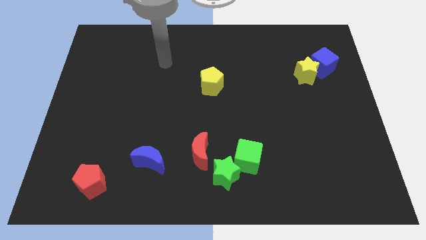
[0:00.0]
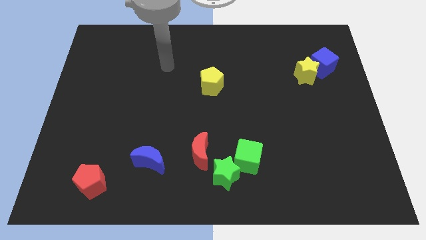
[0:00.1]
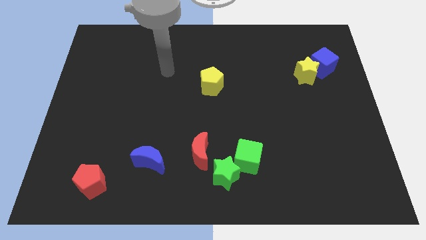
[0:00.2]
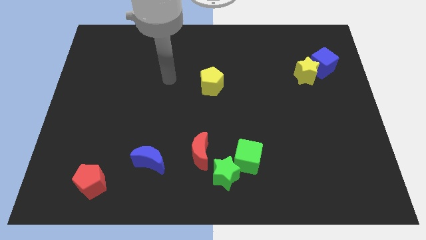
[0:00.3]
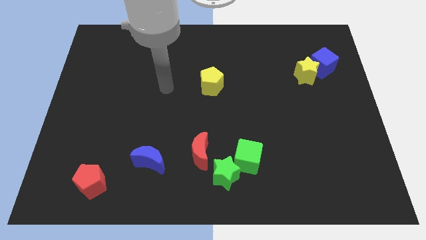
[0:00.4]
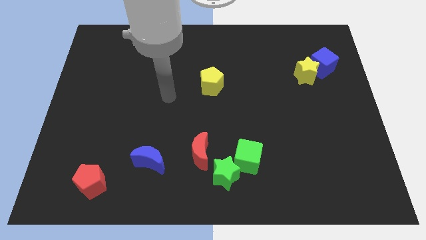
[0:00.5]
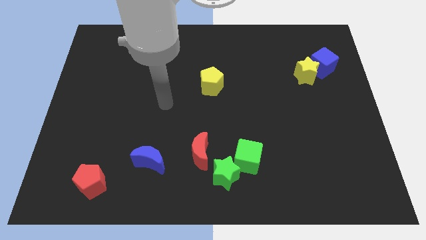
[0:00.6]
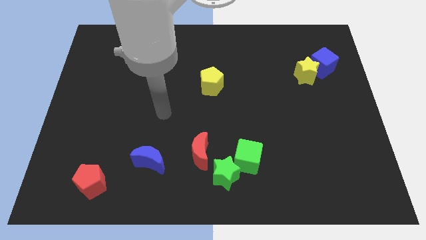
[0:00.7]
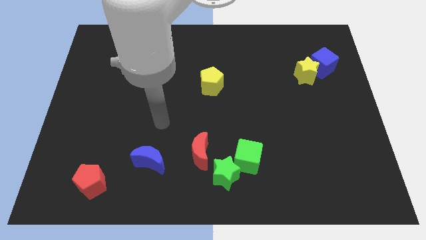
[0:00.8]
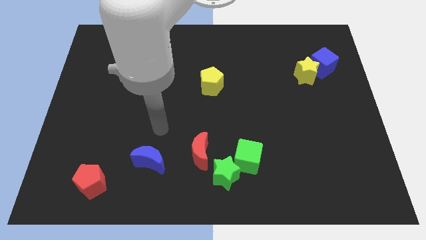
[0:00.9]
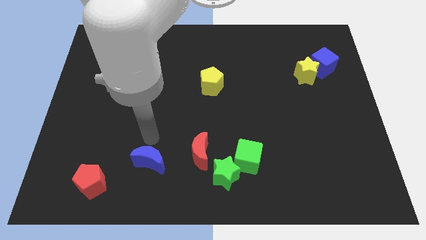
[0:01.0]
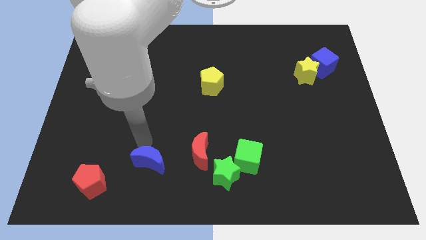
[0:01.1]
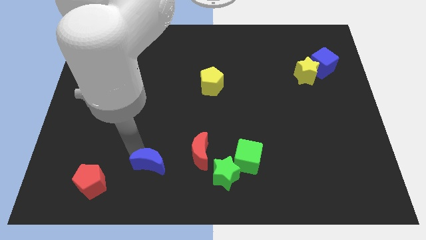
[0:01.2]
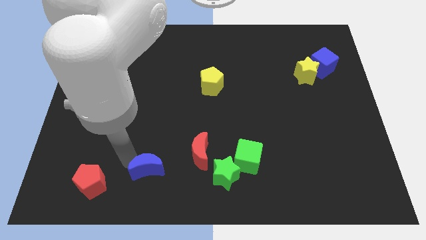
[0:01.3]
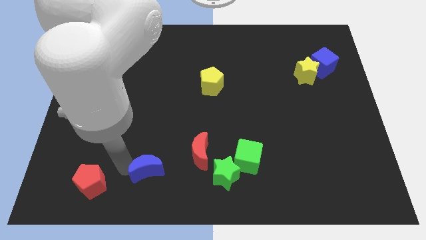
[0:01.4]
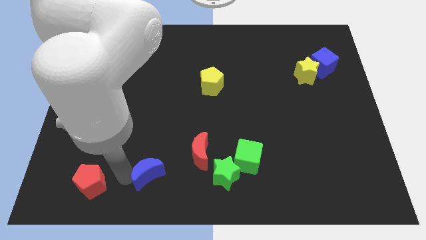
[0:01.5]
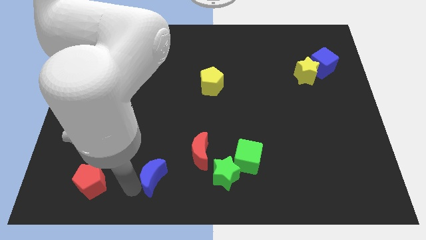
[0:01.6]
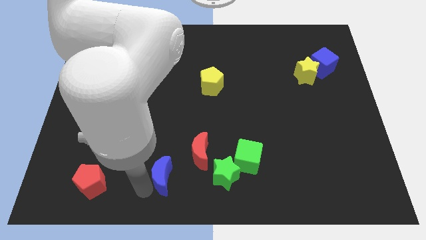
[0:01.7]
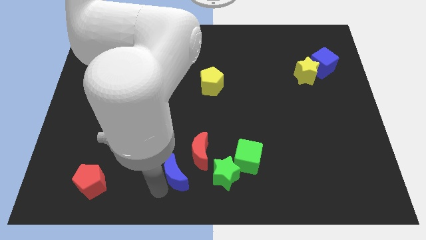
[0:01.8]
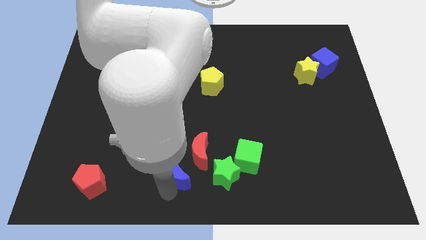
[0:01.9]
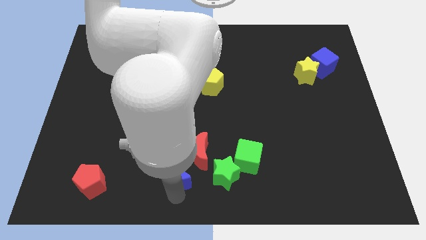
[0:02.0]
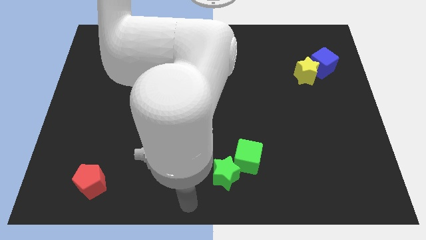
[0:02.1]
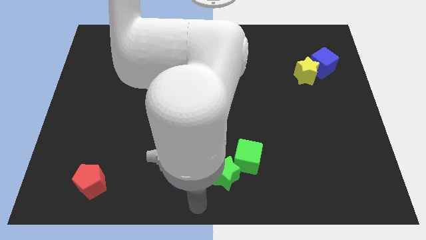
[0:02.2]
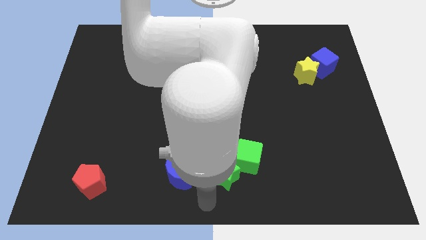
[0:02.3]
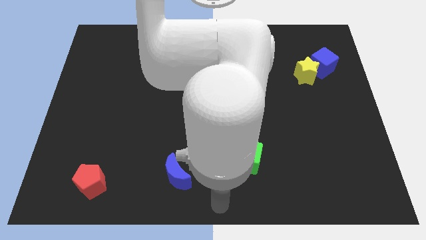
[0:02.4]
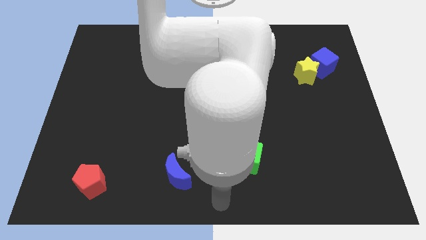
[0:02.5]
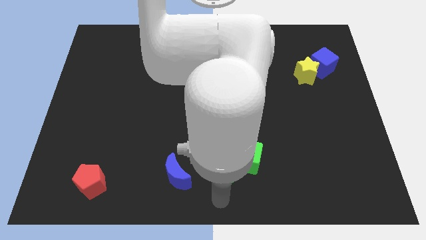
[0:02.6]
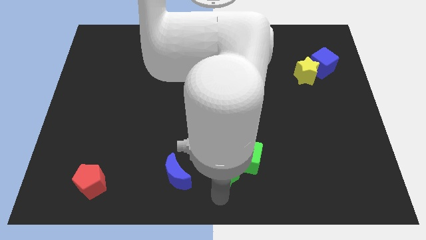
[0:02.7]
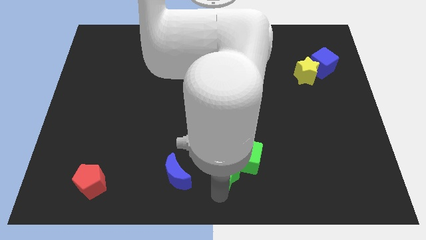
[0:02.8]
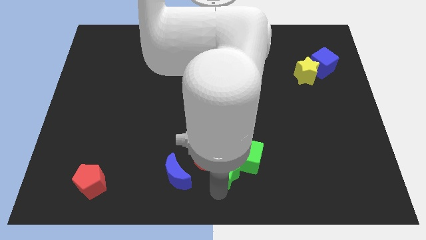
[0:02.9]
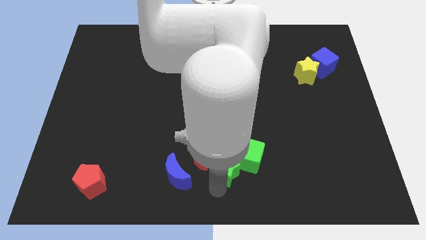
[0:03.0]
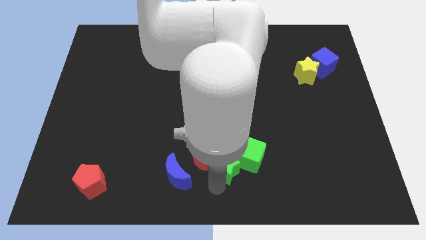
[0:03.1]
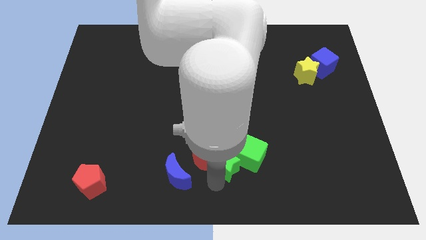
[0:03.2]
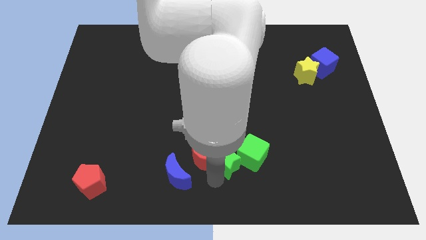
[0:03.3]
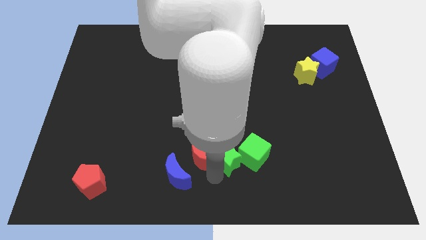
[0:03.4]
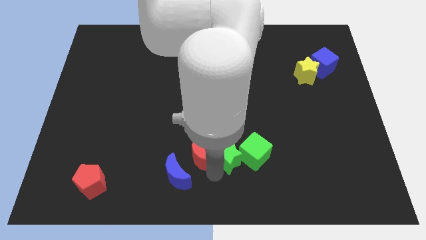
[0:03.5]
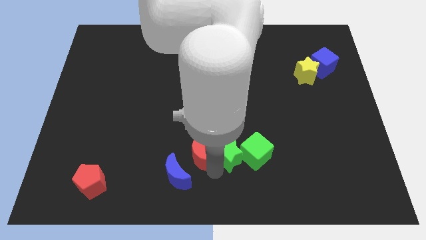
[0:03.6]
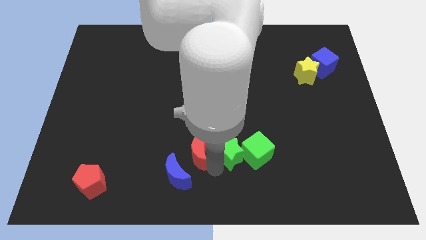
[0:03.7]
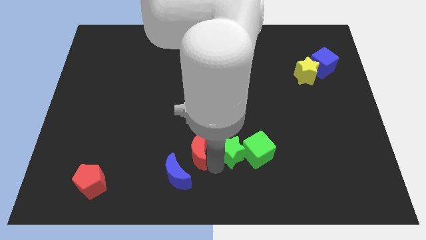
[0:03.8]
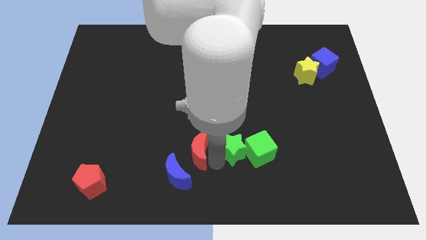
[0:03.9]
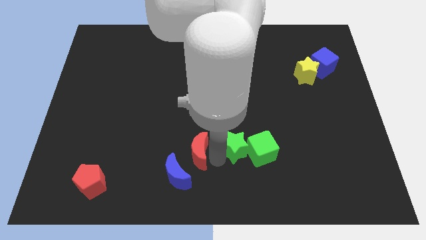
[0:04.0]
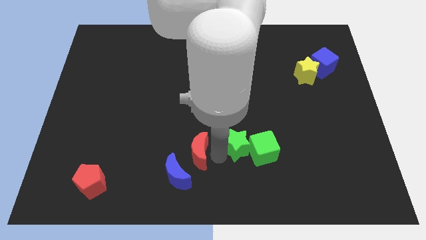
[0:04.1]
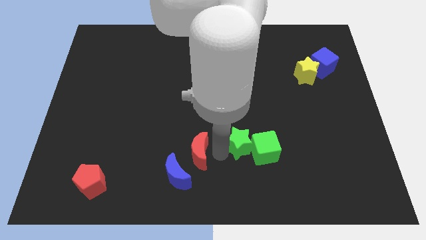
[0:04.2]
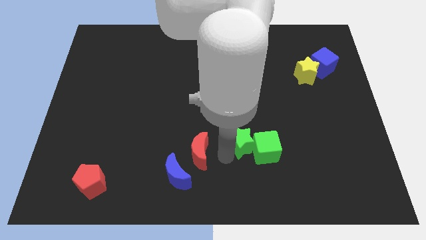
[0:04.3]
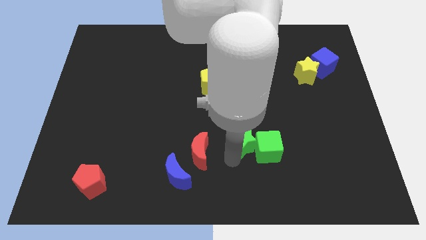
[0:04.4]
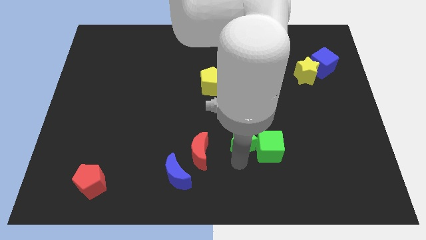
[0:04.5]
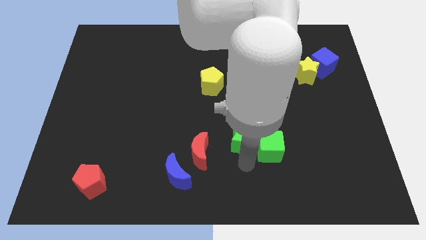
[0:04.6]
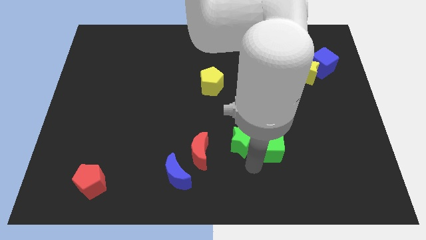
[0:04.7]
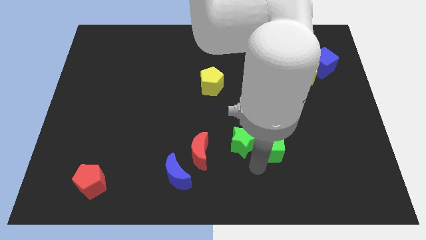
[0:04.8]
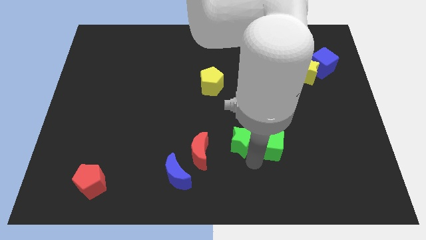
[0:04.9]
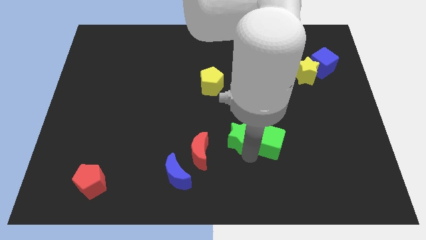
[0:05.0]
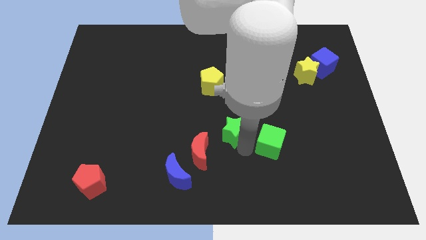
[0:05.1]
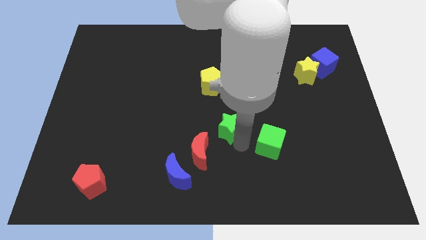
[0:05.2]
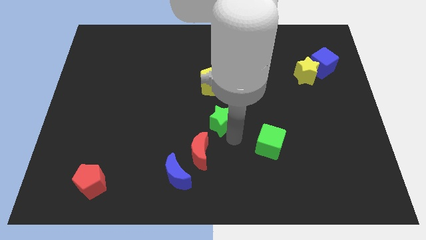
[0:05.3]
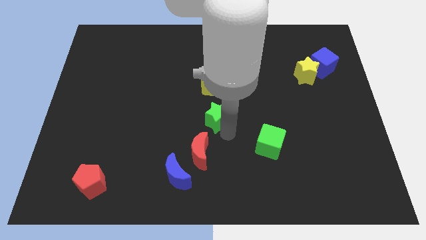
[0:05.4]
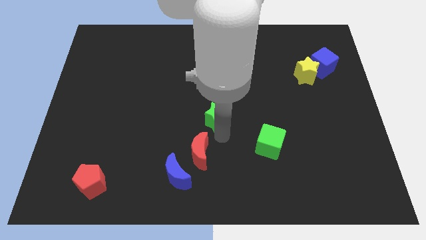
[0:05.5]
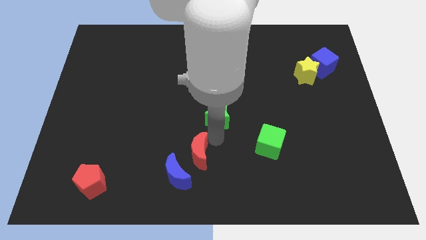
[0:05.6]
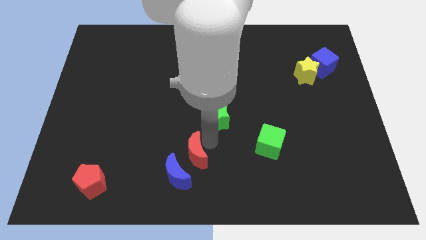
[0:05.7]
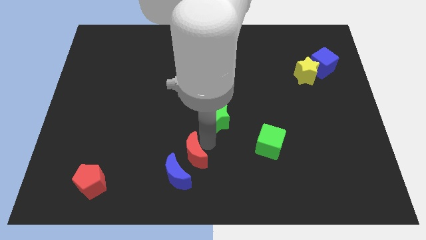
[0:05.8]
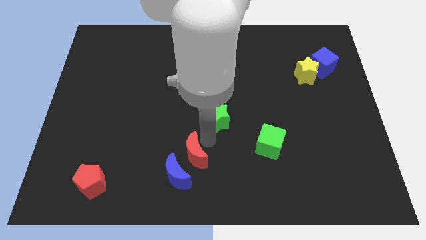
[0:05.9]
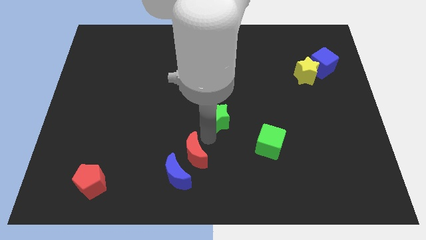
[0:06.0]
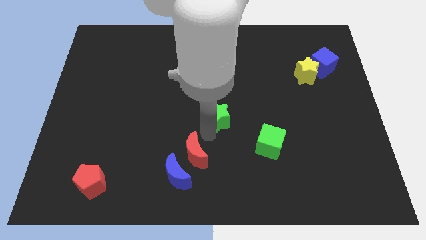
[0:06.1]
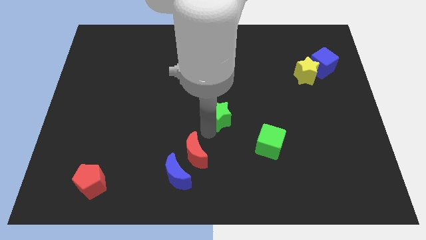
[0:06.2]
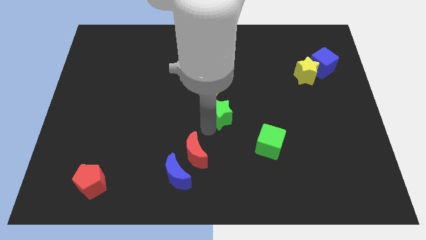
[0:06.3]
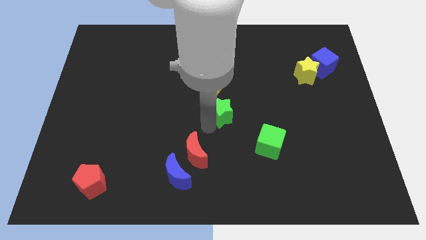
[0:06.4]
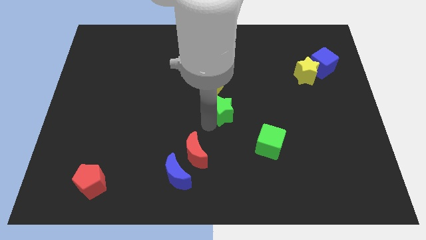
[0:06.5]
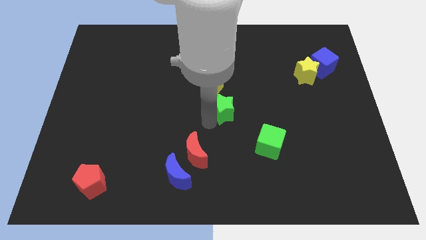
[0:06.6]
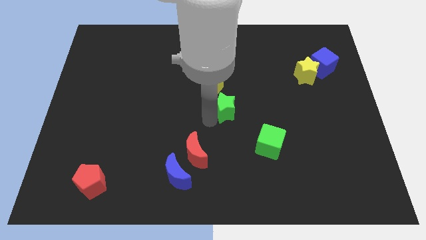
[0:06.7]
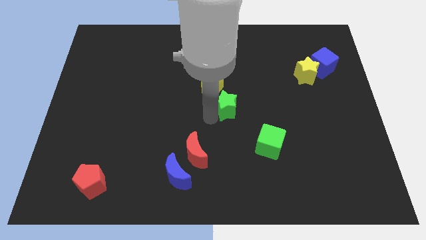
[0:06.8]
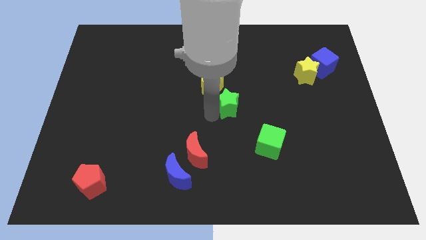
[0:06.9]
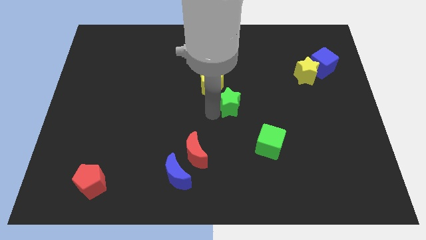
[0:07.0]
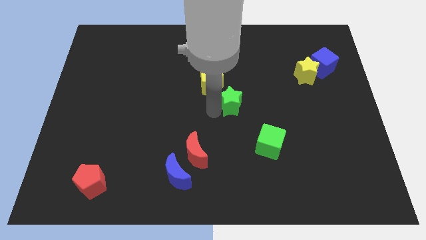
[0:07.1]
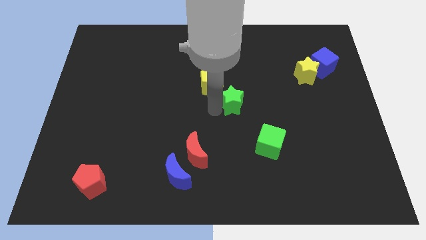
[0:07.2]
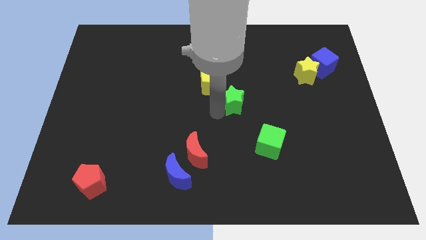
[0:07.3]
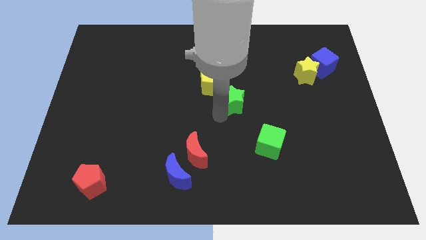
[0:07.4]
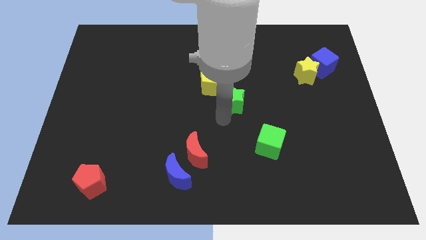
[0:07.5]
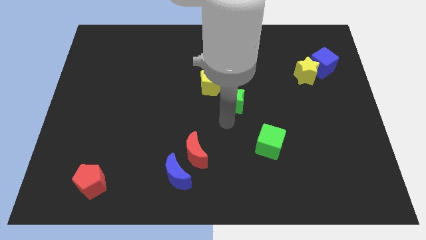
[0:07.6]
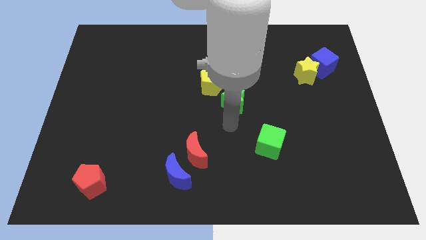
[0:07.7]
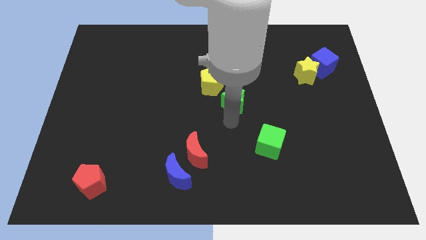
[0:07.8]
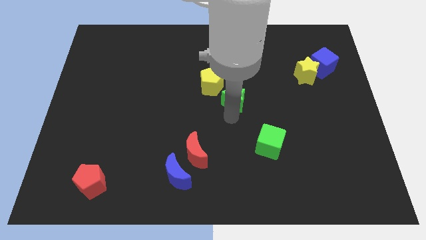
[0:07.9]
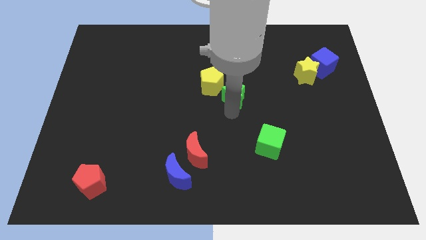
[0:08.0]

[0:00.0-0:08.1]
move the green star up
